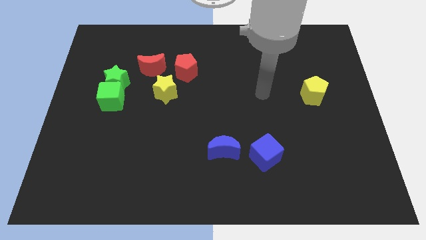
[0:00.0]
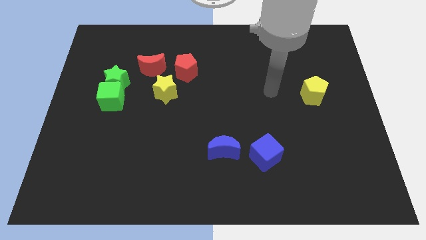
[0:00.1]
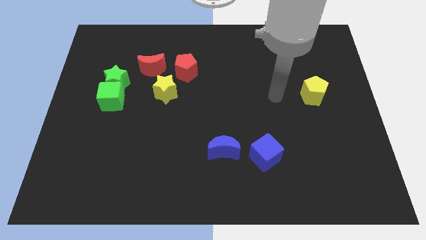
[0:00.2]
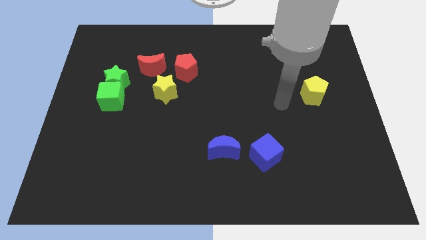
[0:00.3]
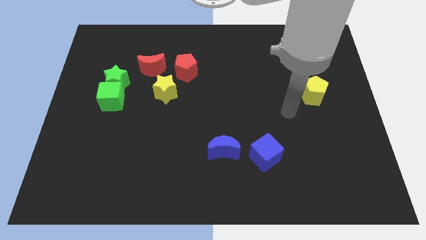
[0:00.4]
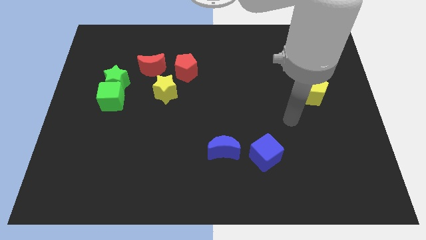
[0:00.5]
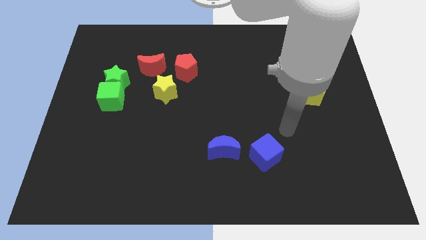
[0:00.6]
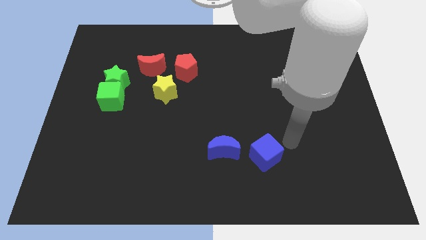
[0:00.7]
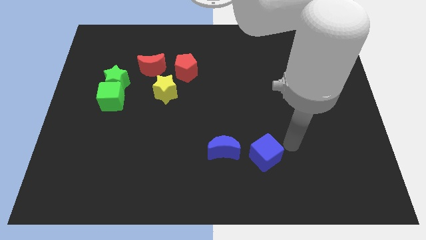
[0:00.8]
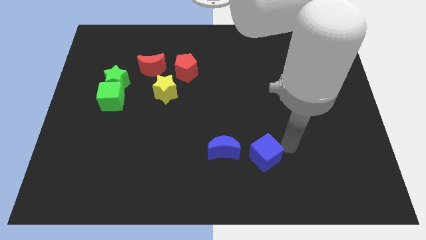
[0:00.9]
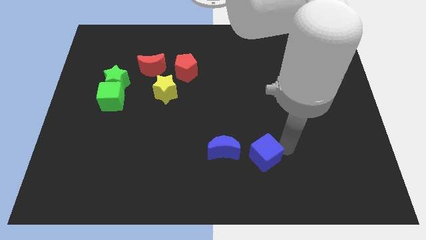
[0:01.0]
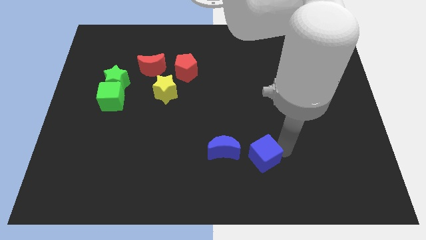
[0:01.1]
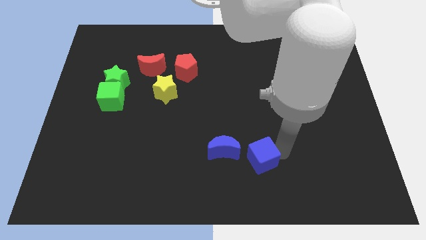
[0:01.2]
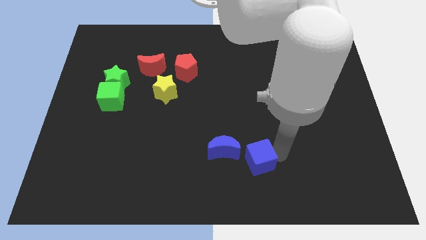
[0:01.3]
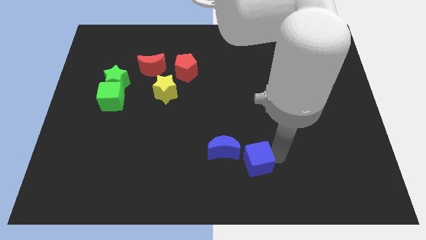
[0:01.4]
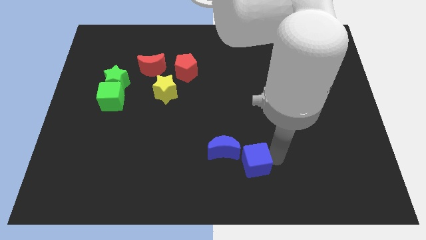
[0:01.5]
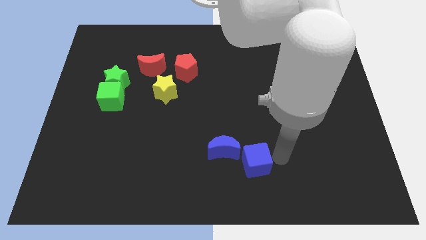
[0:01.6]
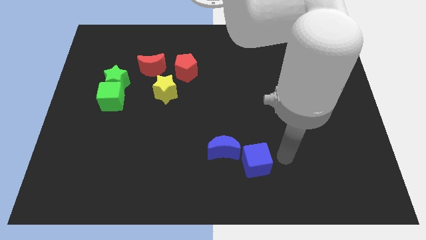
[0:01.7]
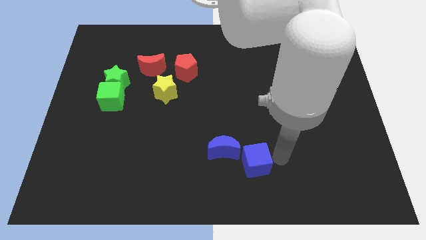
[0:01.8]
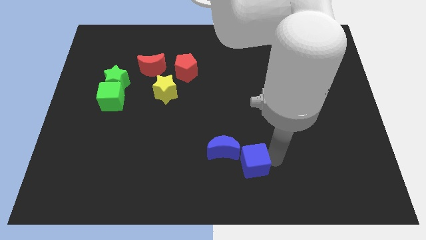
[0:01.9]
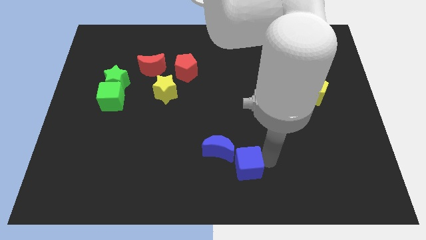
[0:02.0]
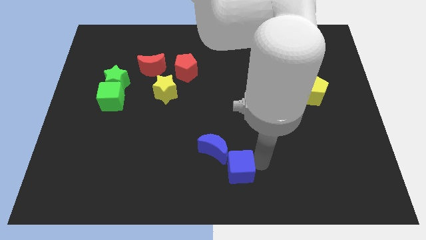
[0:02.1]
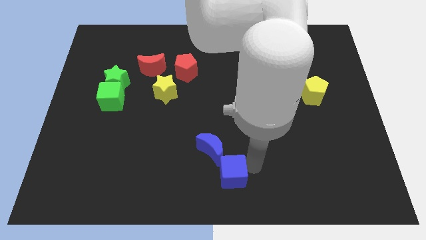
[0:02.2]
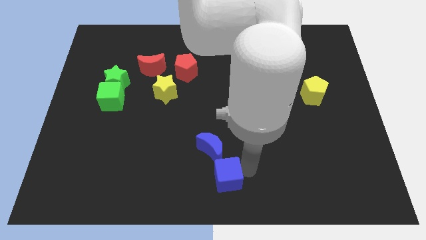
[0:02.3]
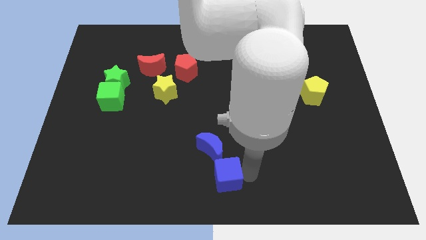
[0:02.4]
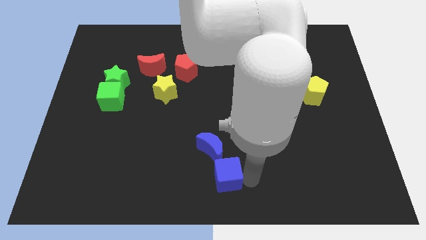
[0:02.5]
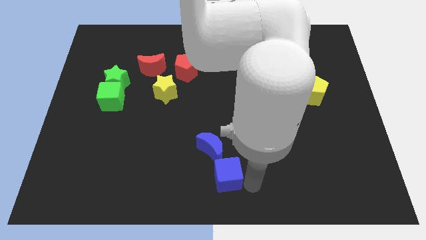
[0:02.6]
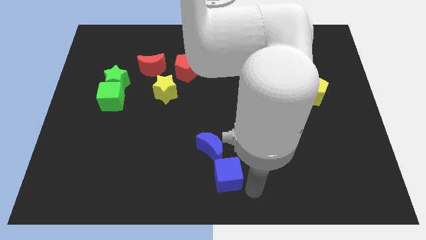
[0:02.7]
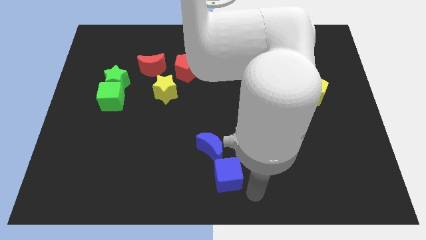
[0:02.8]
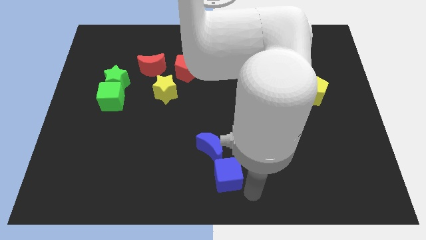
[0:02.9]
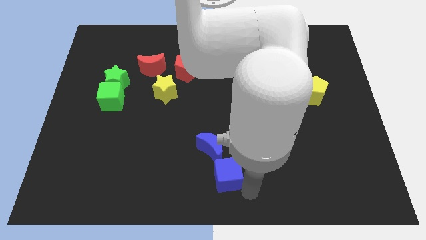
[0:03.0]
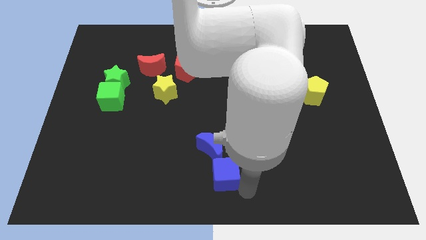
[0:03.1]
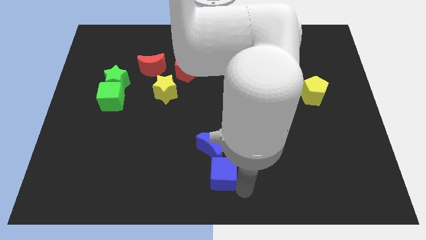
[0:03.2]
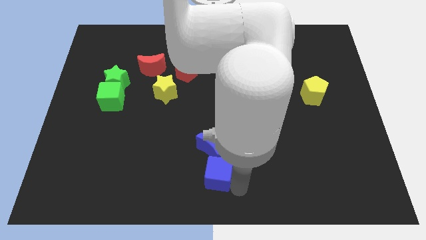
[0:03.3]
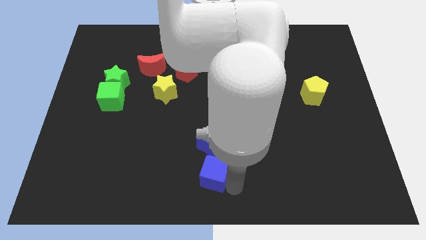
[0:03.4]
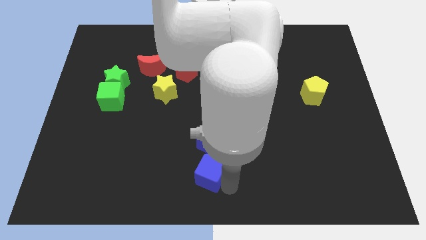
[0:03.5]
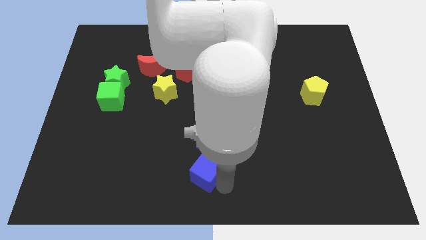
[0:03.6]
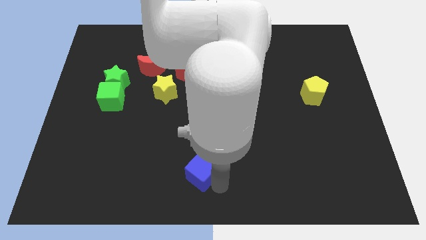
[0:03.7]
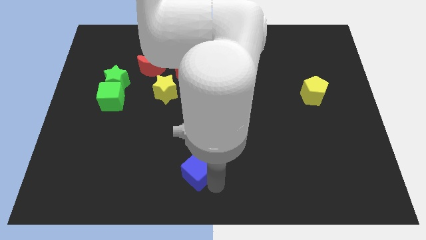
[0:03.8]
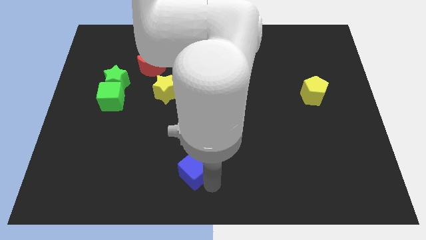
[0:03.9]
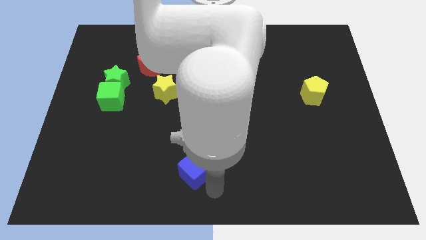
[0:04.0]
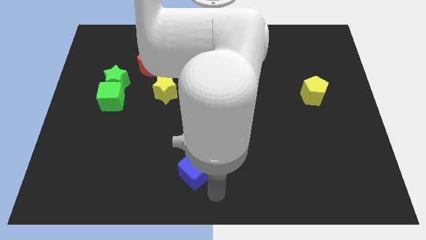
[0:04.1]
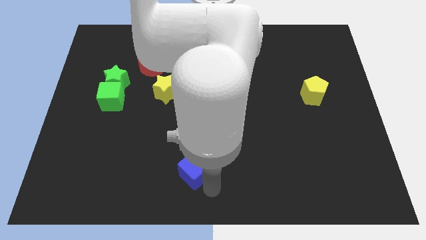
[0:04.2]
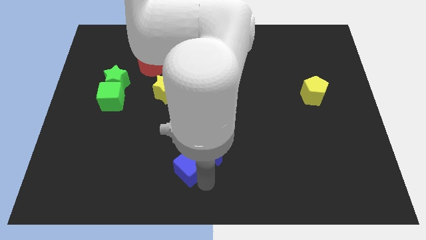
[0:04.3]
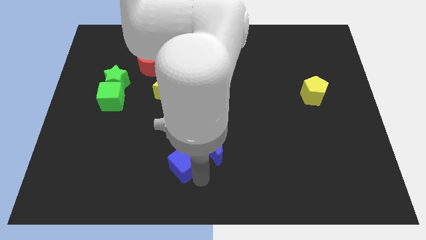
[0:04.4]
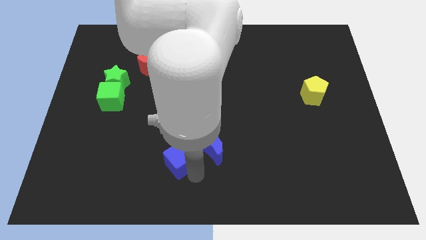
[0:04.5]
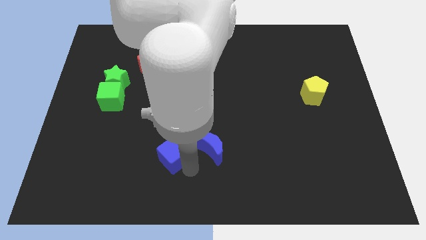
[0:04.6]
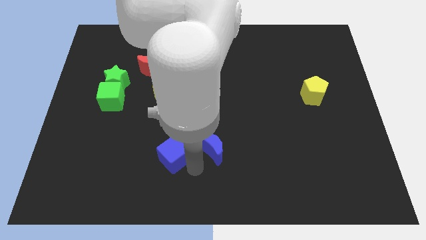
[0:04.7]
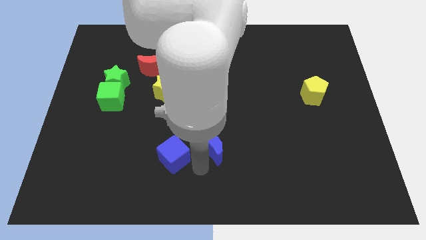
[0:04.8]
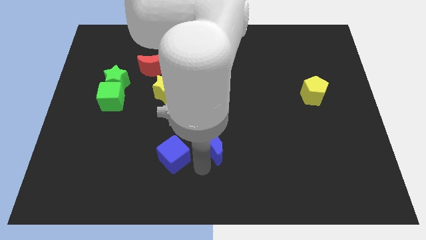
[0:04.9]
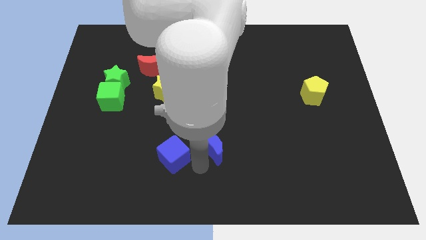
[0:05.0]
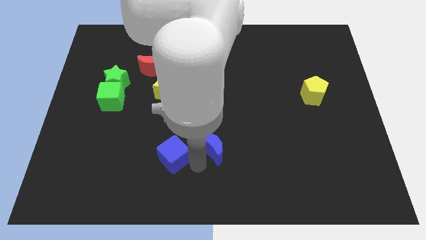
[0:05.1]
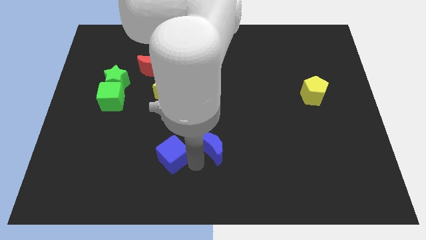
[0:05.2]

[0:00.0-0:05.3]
slide the blue cube left

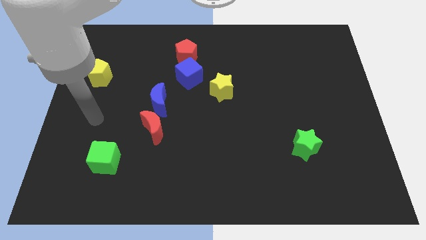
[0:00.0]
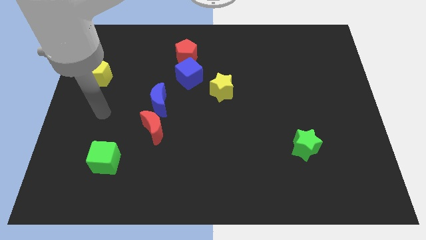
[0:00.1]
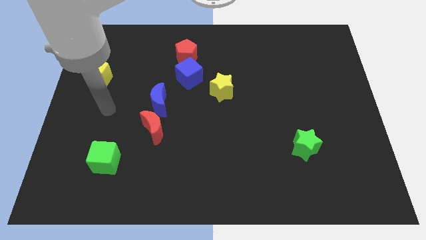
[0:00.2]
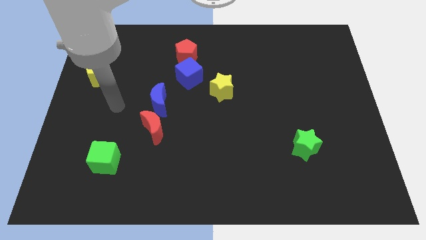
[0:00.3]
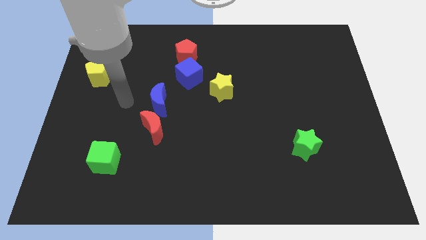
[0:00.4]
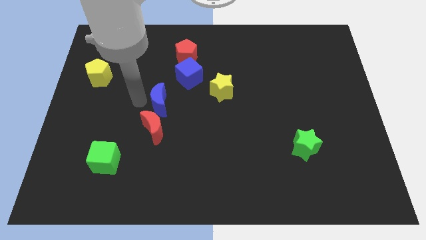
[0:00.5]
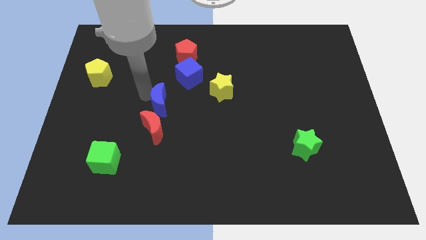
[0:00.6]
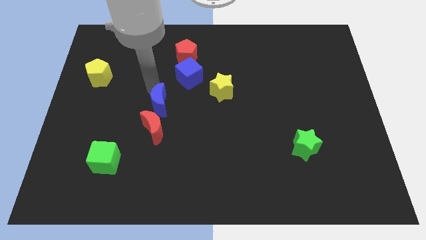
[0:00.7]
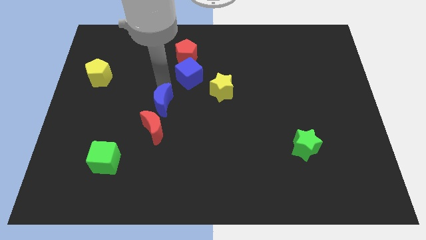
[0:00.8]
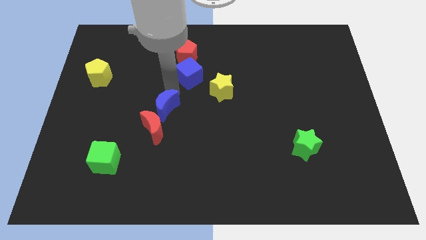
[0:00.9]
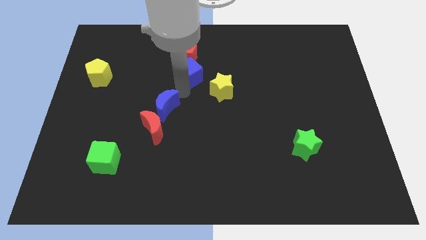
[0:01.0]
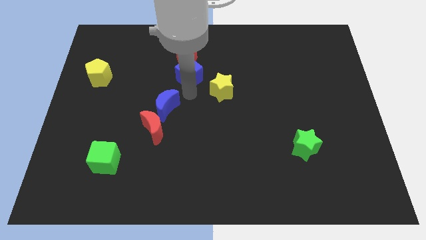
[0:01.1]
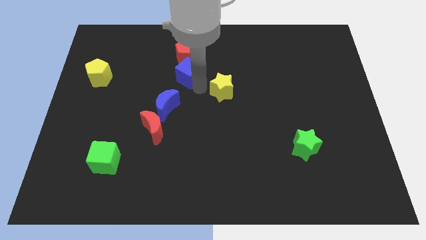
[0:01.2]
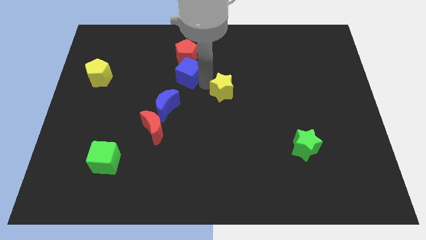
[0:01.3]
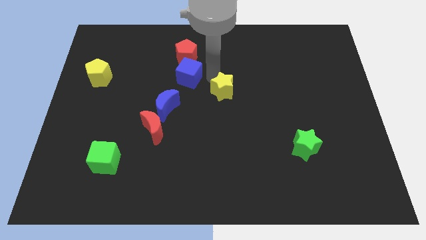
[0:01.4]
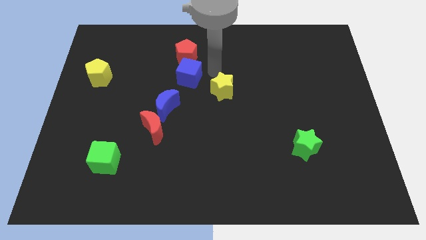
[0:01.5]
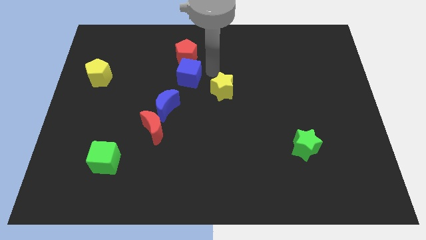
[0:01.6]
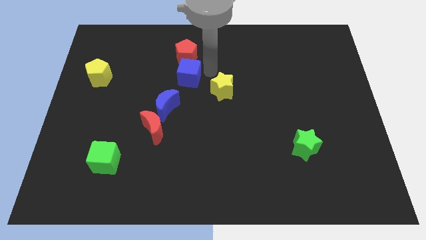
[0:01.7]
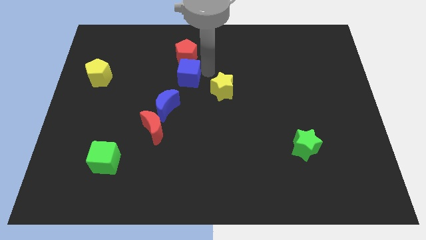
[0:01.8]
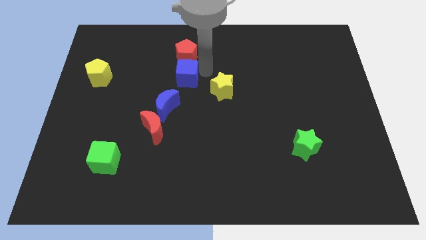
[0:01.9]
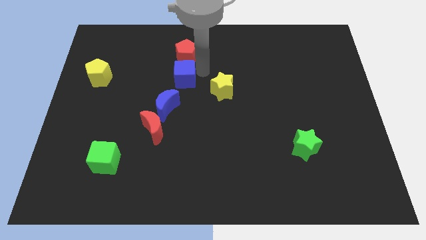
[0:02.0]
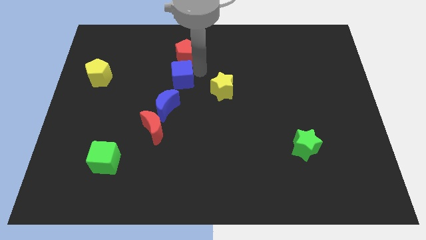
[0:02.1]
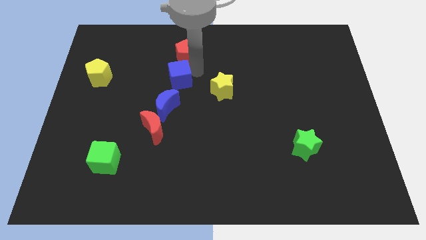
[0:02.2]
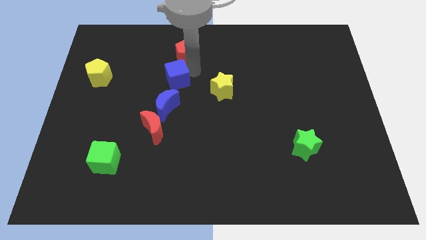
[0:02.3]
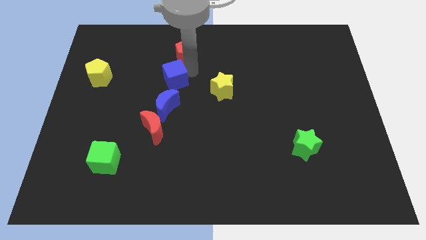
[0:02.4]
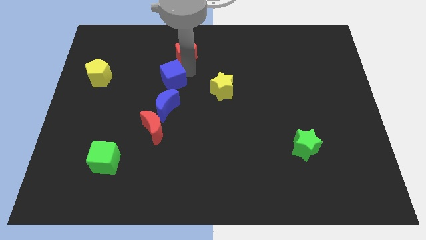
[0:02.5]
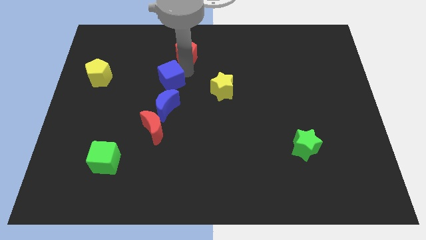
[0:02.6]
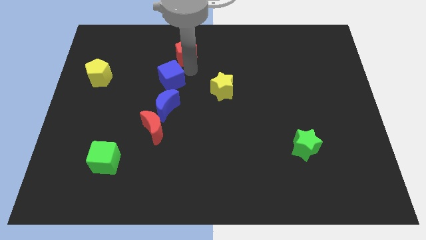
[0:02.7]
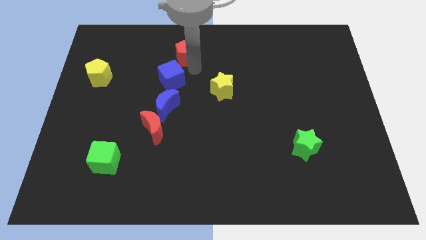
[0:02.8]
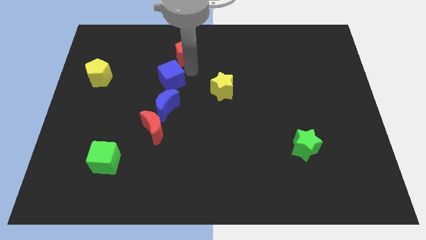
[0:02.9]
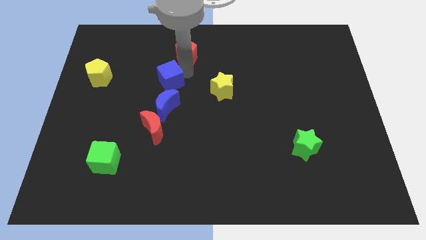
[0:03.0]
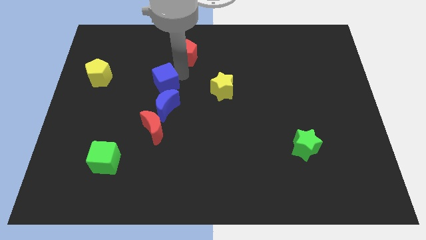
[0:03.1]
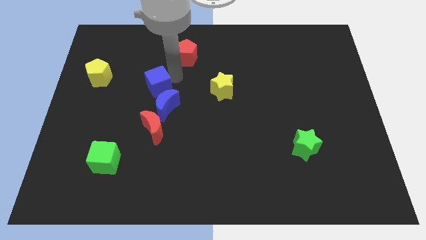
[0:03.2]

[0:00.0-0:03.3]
slide the blue cube slightly down and then left
